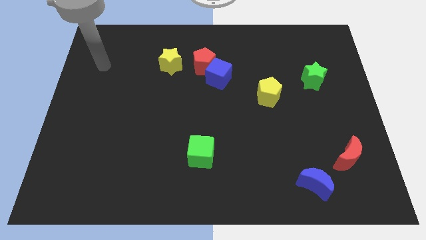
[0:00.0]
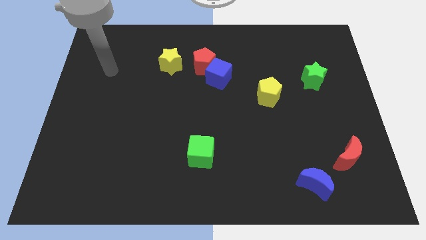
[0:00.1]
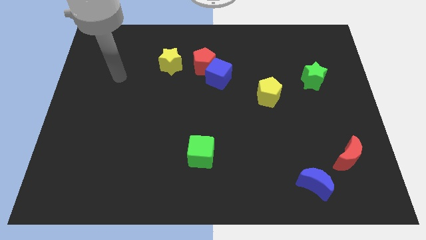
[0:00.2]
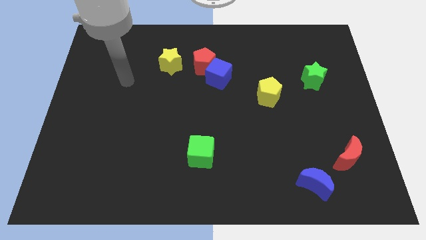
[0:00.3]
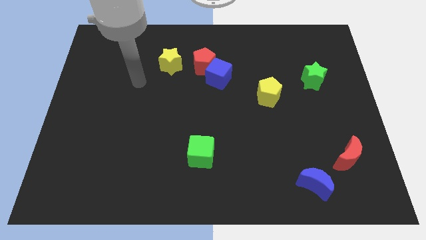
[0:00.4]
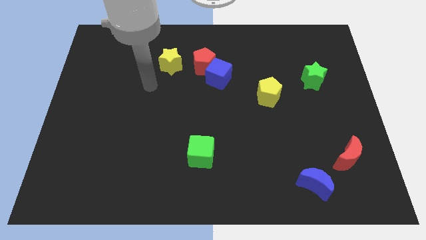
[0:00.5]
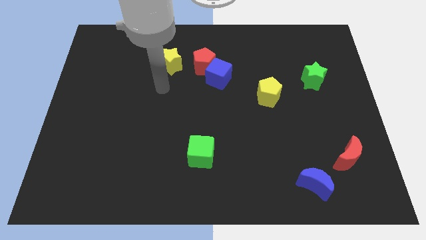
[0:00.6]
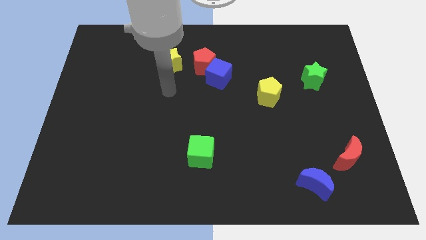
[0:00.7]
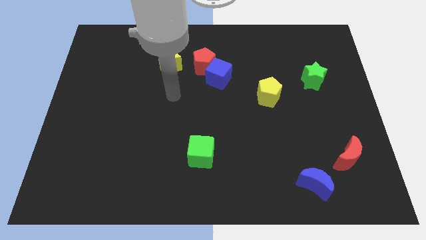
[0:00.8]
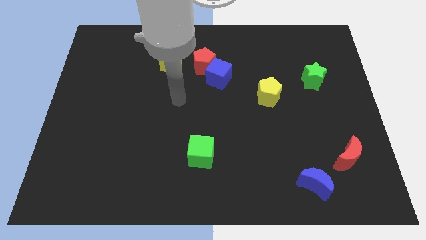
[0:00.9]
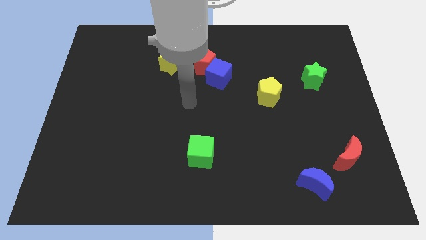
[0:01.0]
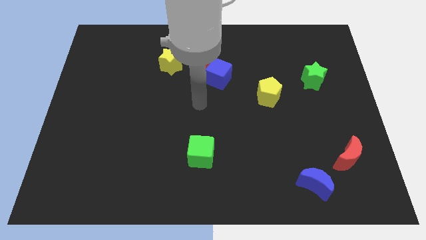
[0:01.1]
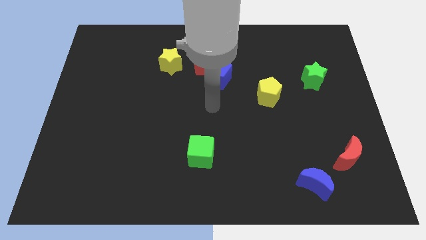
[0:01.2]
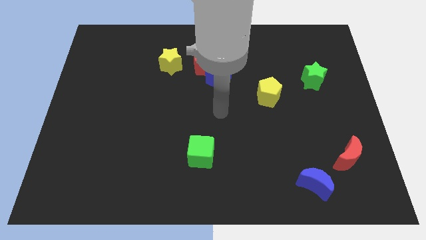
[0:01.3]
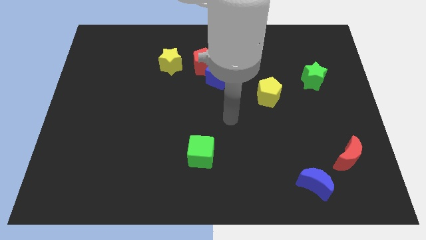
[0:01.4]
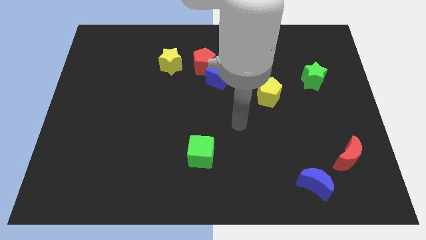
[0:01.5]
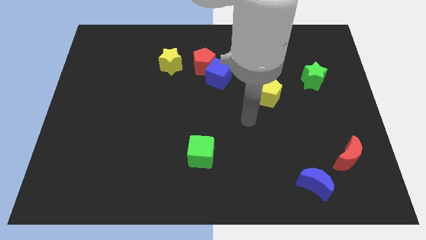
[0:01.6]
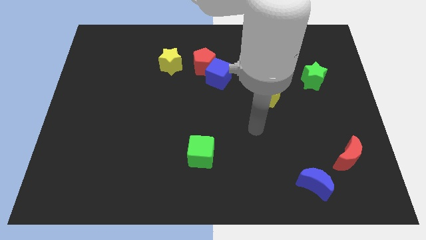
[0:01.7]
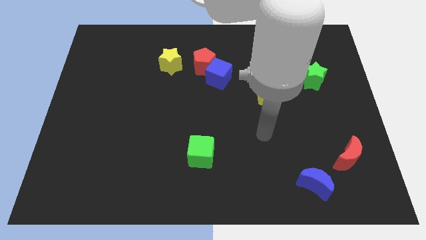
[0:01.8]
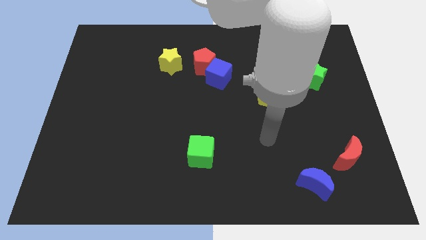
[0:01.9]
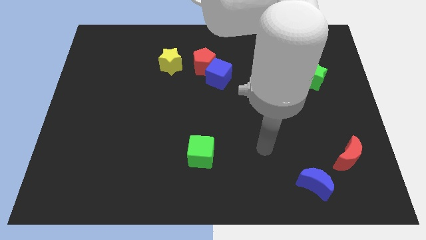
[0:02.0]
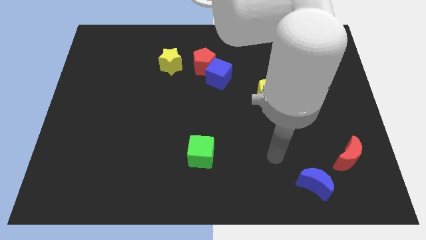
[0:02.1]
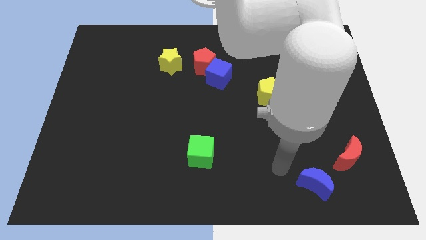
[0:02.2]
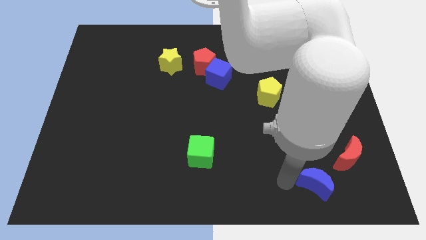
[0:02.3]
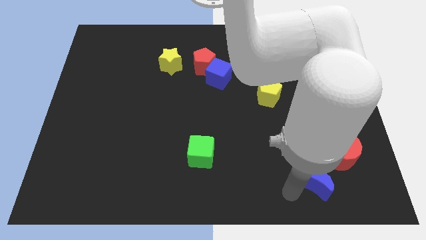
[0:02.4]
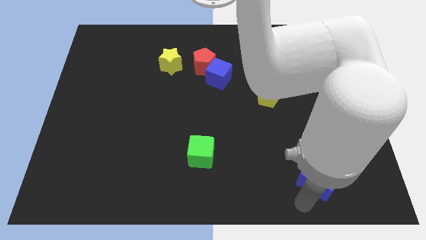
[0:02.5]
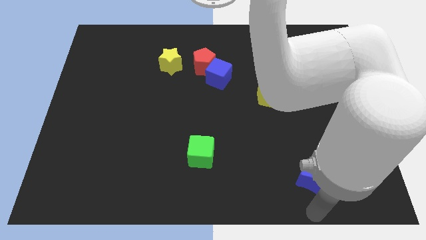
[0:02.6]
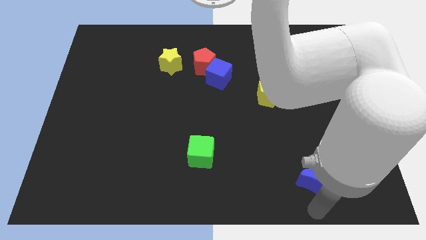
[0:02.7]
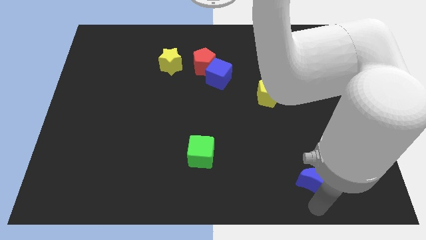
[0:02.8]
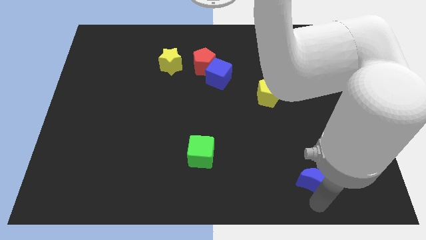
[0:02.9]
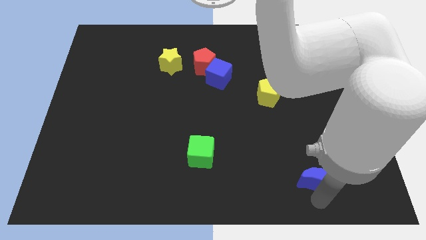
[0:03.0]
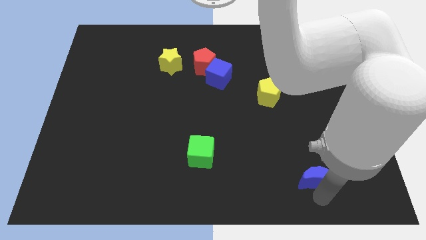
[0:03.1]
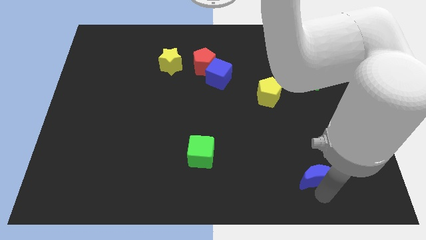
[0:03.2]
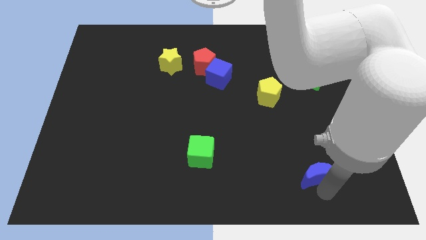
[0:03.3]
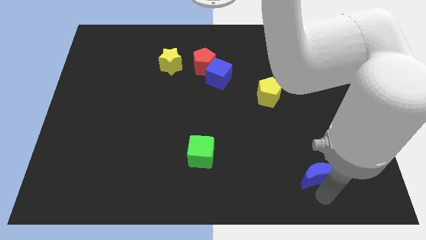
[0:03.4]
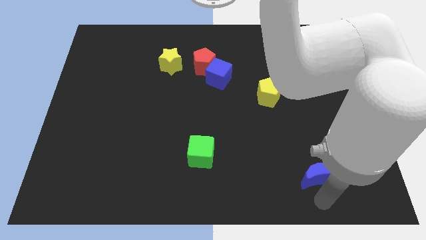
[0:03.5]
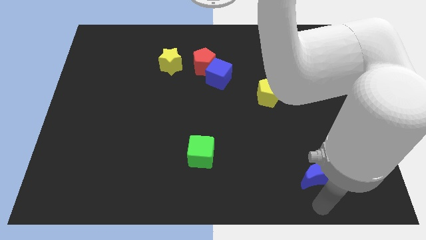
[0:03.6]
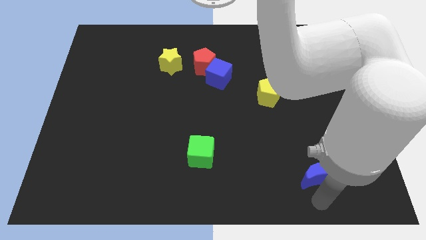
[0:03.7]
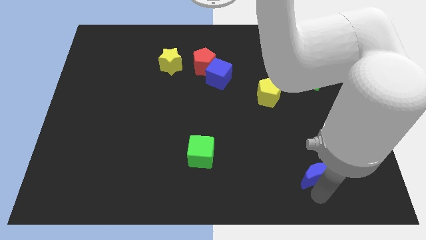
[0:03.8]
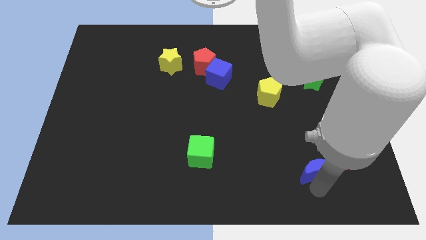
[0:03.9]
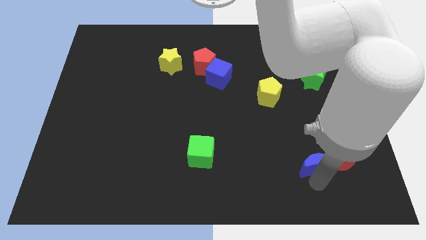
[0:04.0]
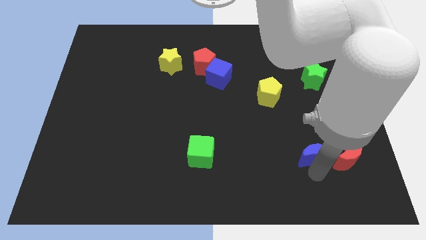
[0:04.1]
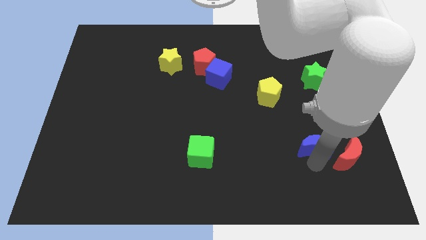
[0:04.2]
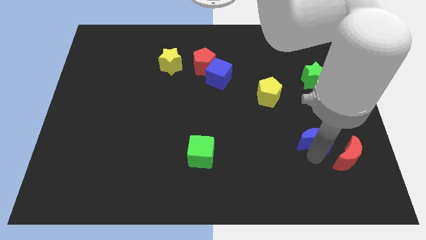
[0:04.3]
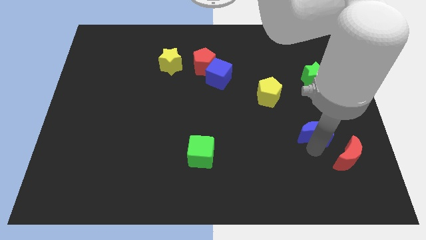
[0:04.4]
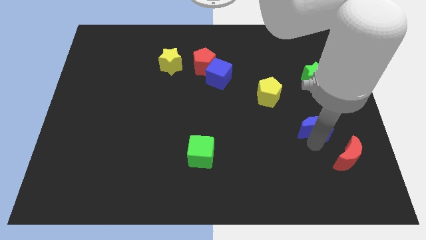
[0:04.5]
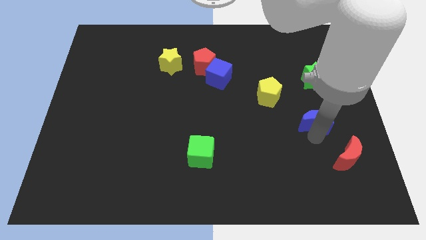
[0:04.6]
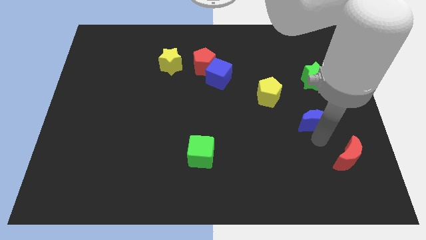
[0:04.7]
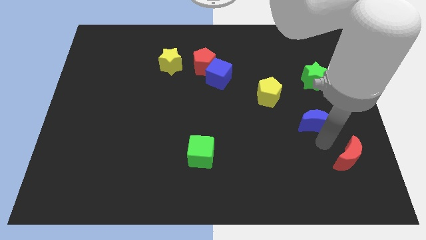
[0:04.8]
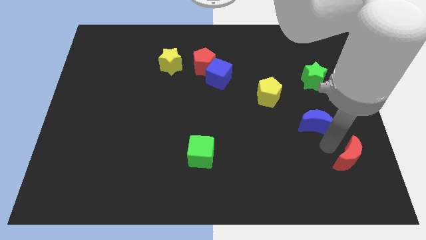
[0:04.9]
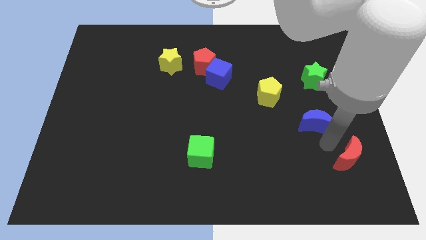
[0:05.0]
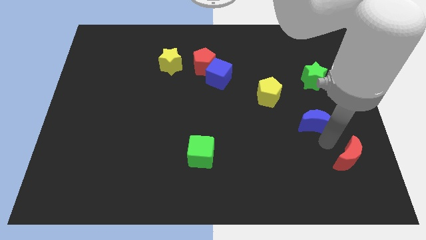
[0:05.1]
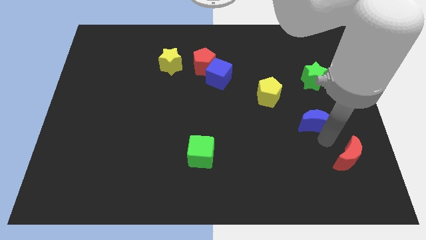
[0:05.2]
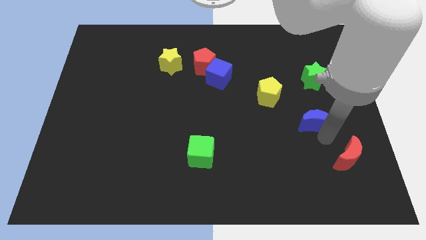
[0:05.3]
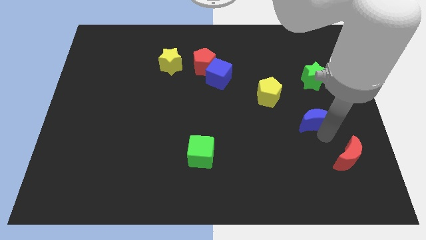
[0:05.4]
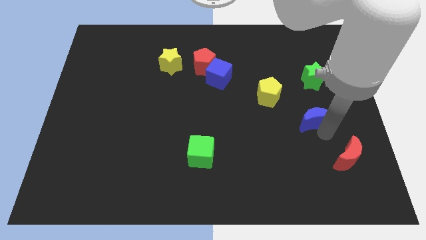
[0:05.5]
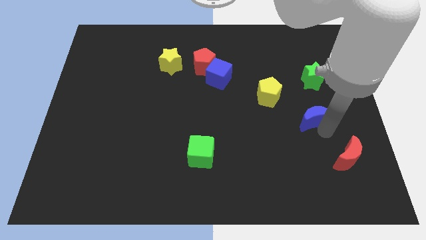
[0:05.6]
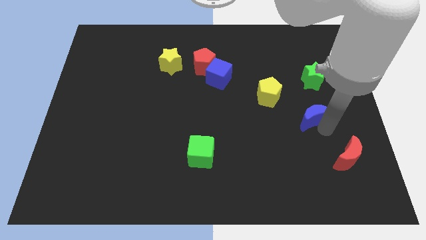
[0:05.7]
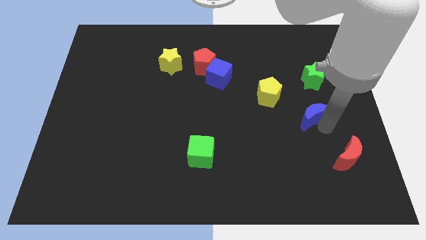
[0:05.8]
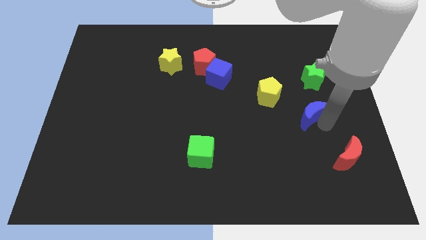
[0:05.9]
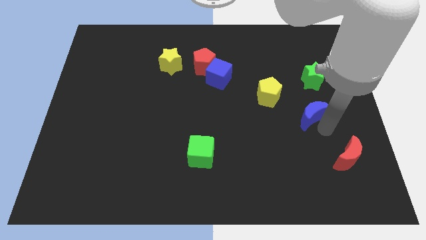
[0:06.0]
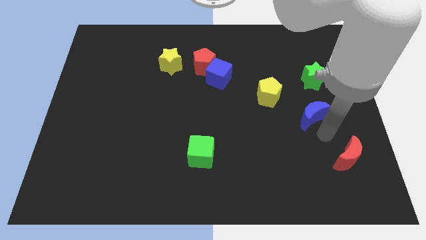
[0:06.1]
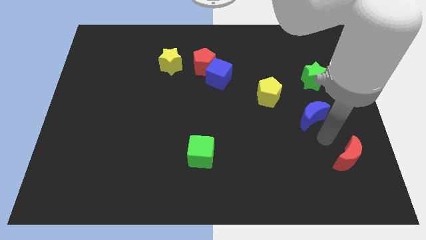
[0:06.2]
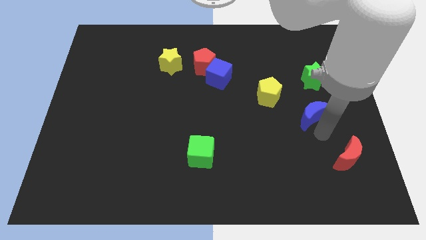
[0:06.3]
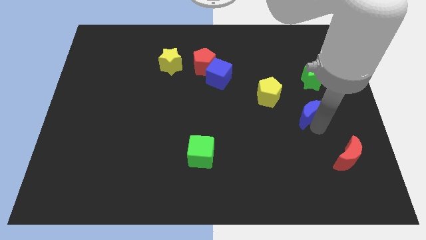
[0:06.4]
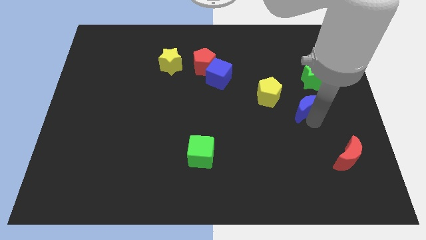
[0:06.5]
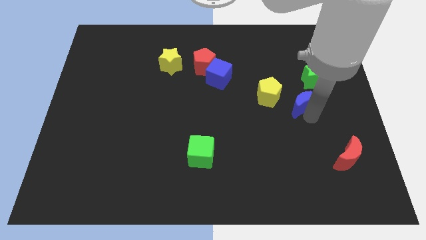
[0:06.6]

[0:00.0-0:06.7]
slide the blue moon upwards

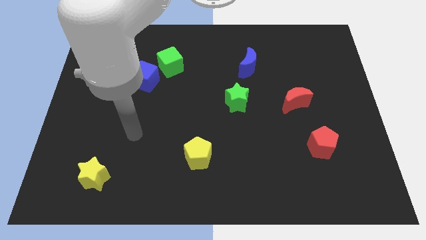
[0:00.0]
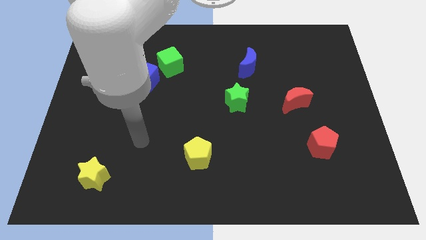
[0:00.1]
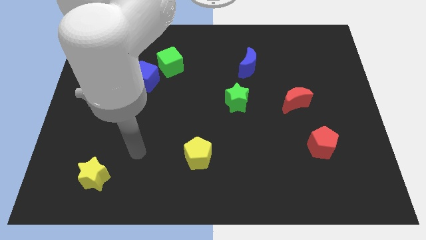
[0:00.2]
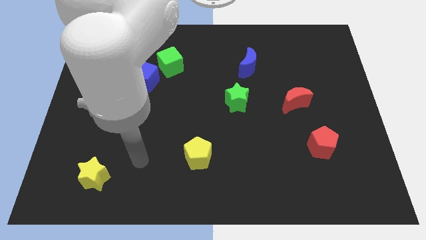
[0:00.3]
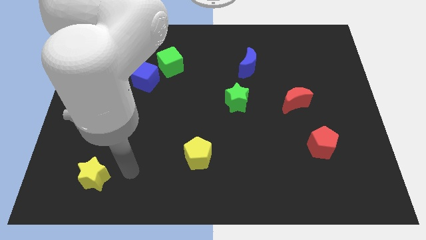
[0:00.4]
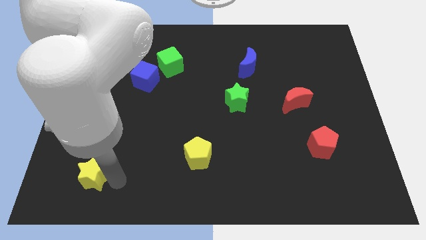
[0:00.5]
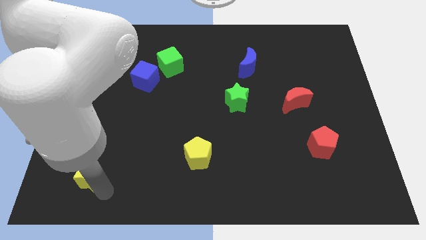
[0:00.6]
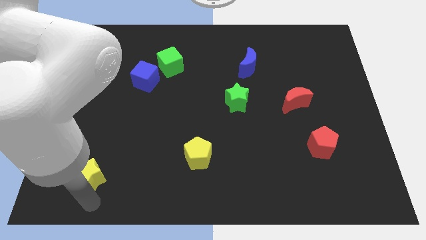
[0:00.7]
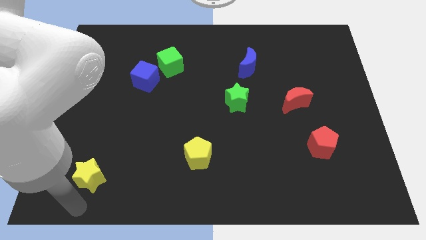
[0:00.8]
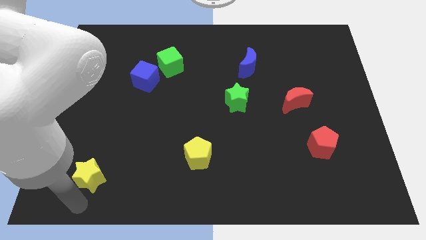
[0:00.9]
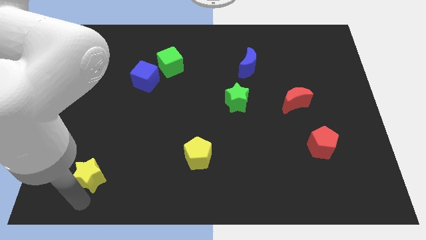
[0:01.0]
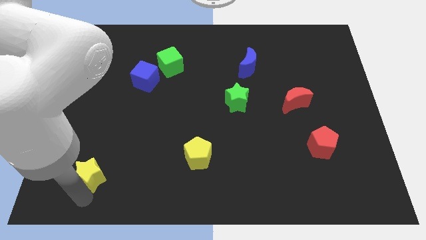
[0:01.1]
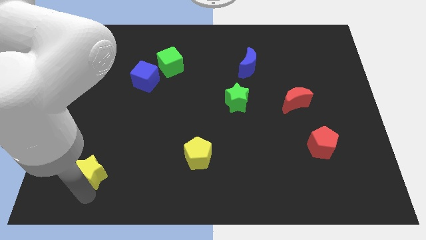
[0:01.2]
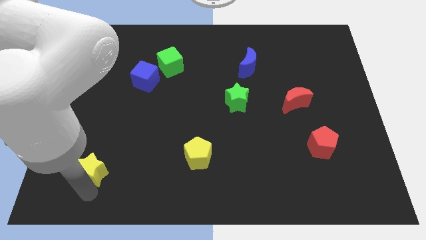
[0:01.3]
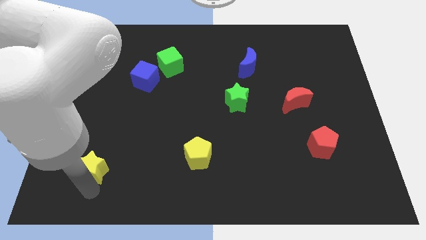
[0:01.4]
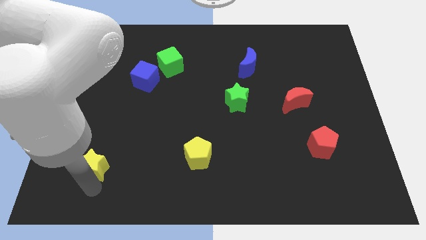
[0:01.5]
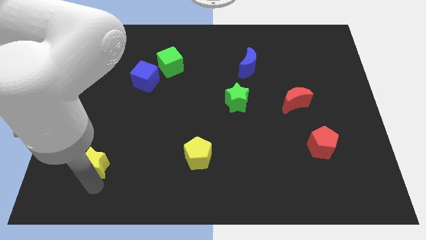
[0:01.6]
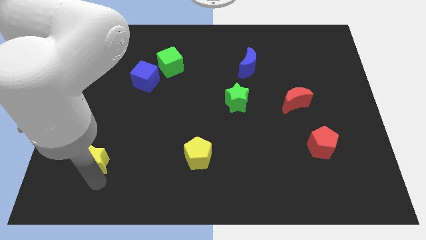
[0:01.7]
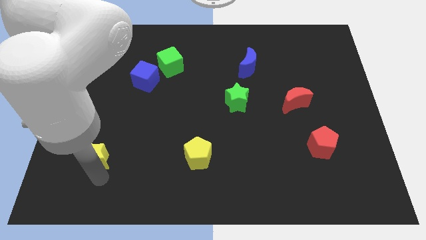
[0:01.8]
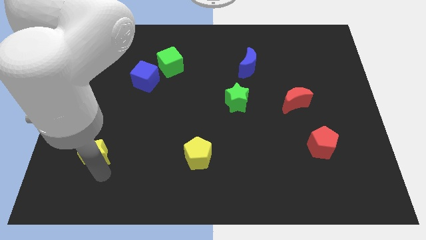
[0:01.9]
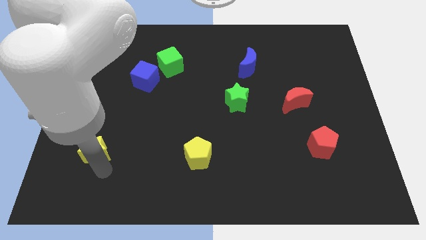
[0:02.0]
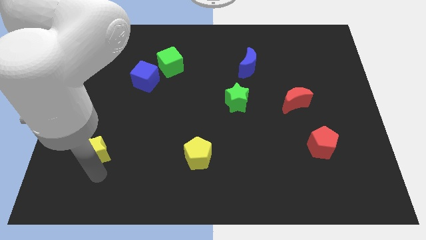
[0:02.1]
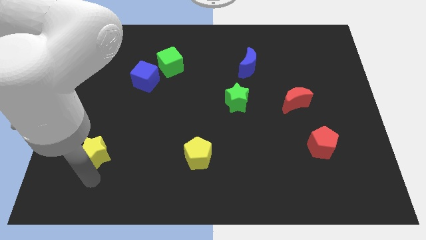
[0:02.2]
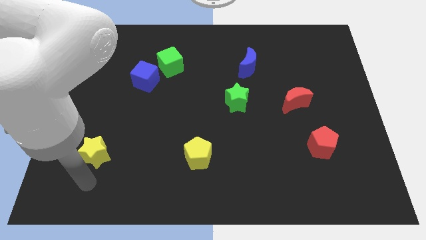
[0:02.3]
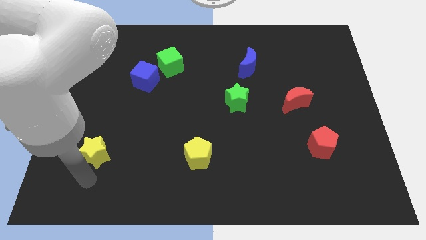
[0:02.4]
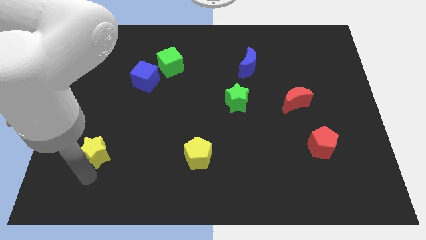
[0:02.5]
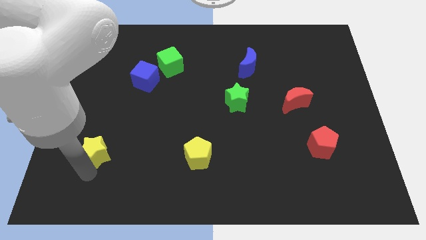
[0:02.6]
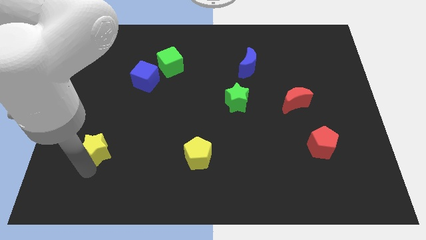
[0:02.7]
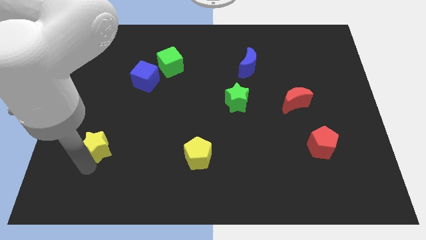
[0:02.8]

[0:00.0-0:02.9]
slightly slide the yellow star up
